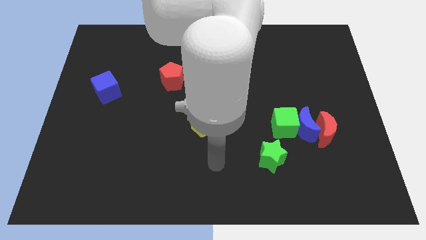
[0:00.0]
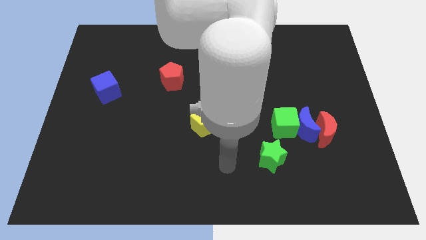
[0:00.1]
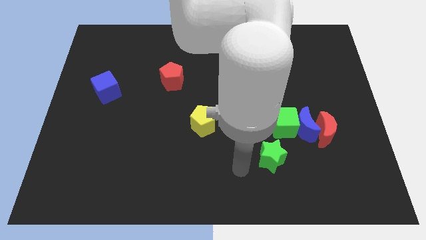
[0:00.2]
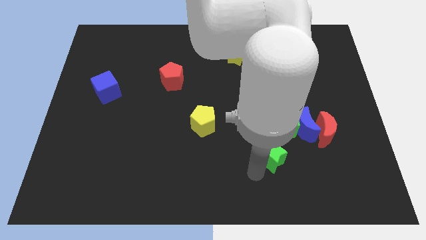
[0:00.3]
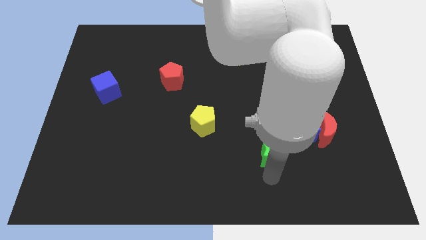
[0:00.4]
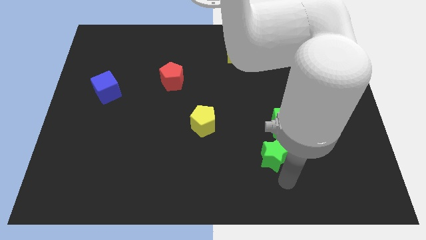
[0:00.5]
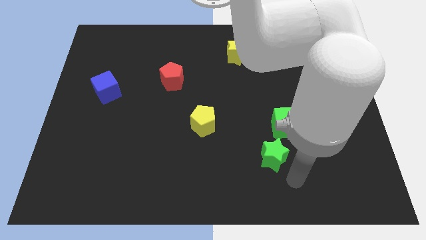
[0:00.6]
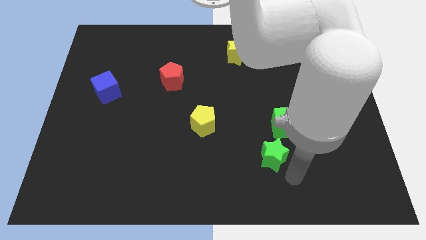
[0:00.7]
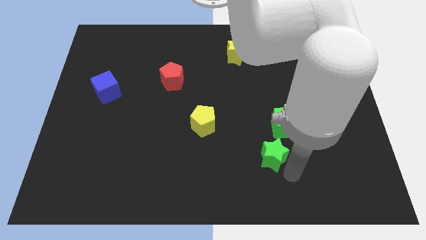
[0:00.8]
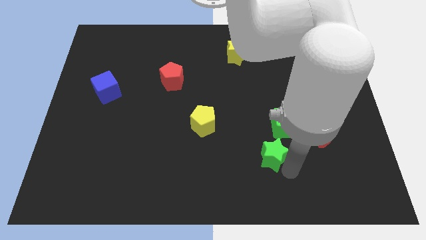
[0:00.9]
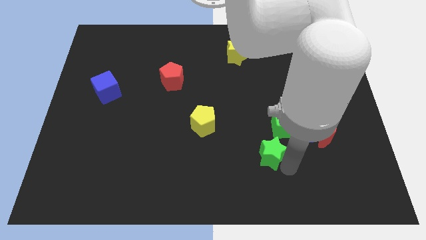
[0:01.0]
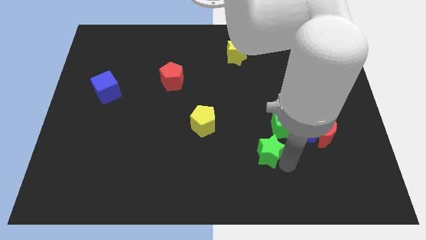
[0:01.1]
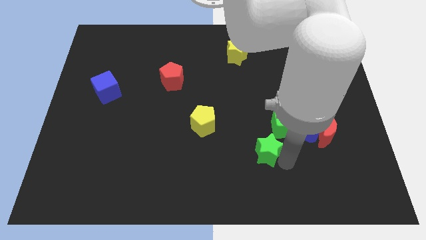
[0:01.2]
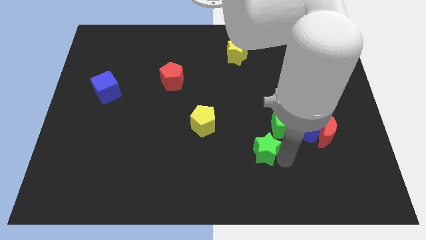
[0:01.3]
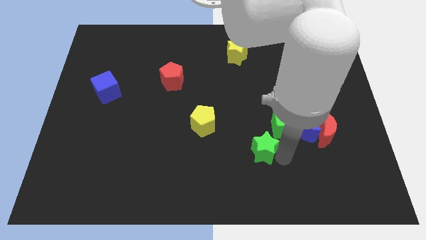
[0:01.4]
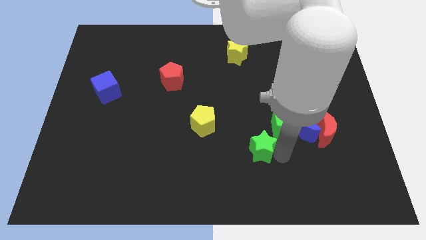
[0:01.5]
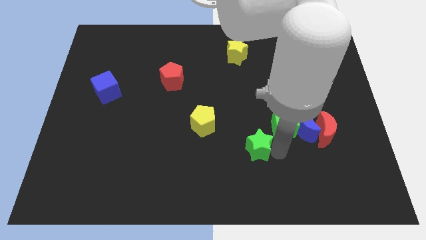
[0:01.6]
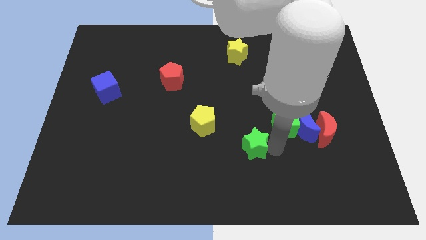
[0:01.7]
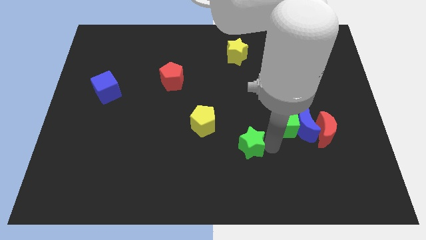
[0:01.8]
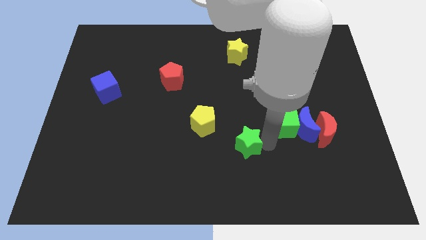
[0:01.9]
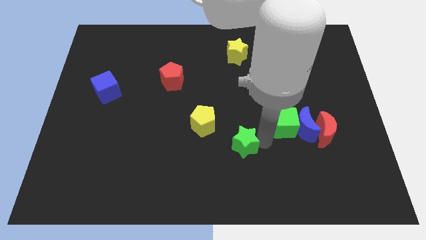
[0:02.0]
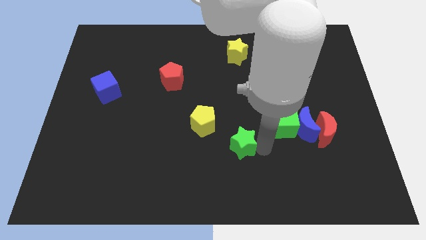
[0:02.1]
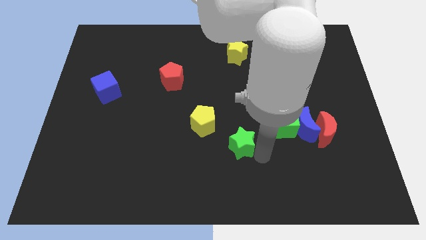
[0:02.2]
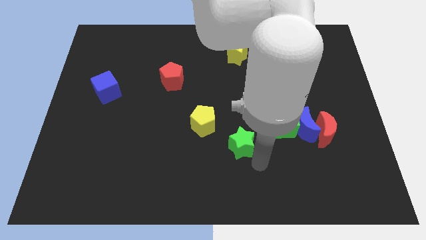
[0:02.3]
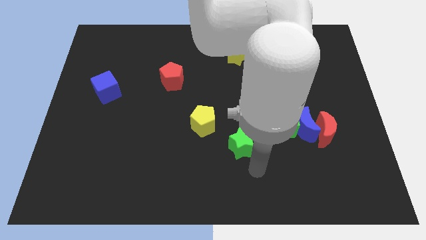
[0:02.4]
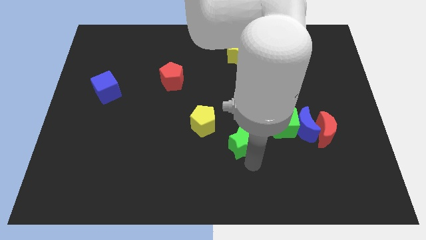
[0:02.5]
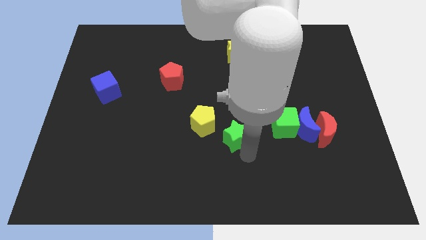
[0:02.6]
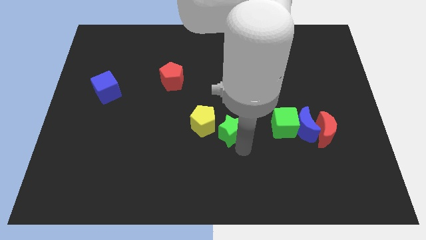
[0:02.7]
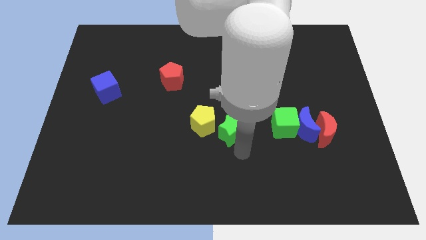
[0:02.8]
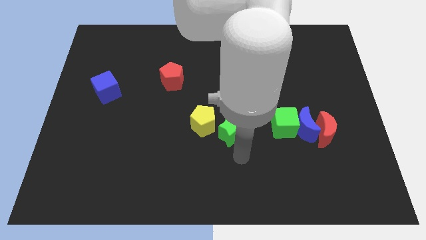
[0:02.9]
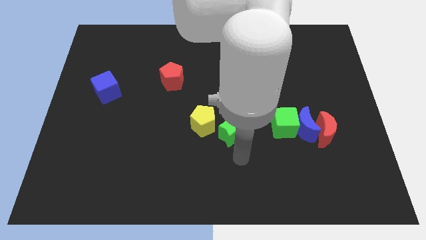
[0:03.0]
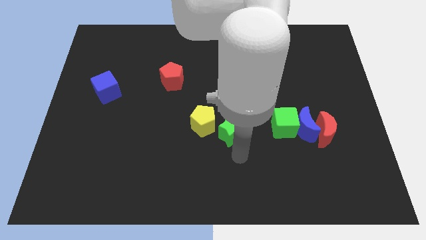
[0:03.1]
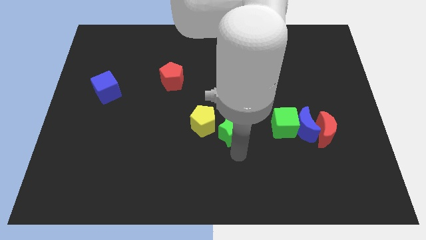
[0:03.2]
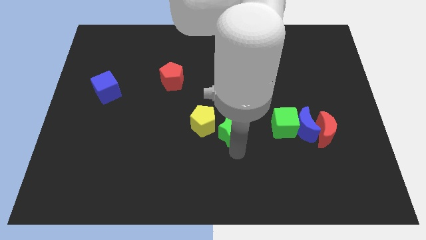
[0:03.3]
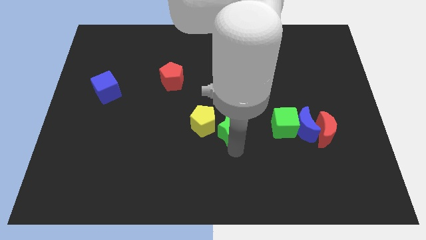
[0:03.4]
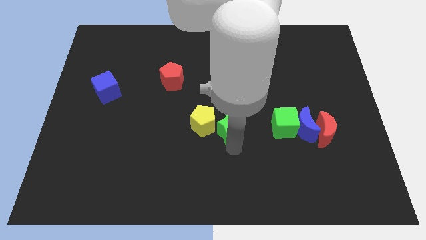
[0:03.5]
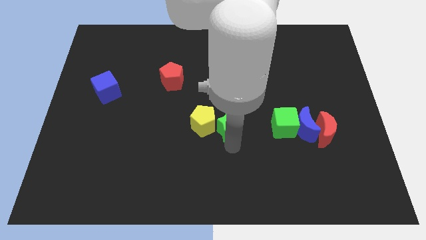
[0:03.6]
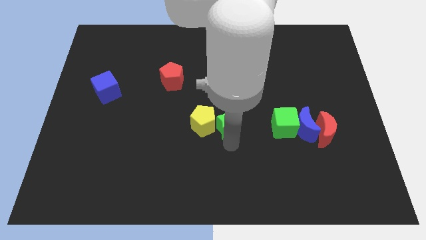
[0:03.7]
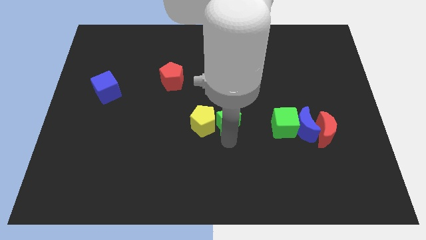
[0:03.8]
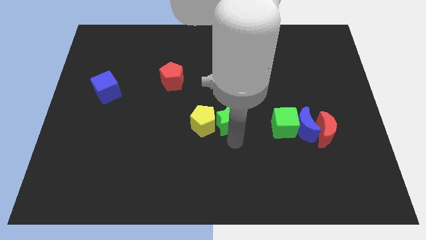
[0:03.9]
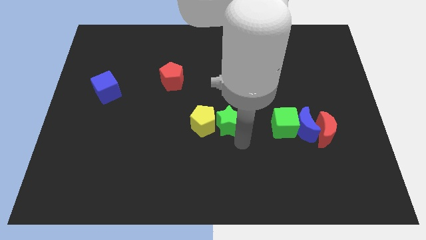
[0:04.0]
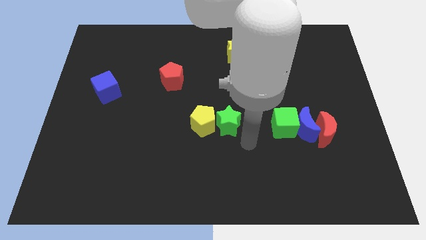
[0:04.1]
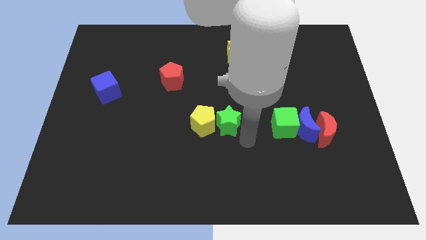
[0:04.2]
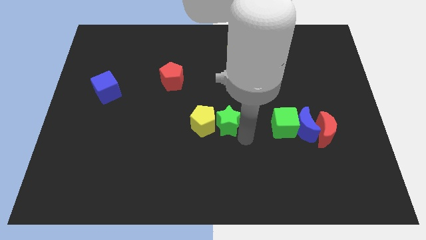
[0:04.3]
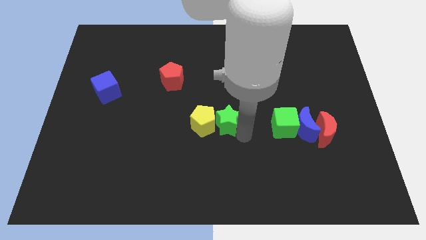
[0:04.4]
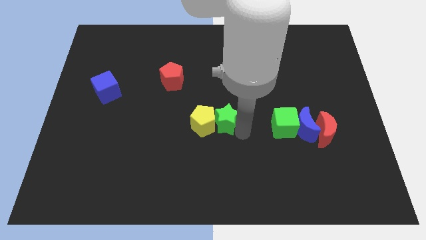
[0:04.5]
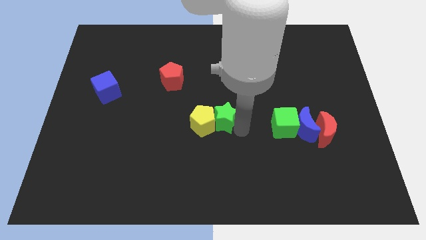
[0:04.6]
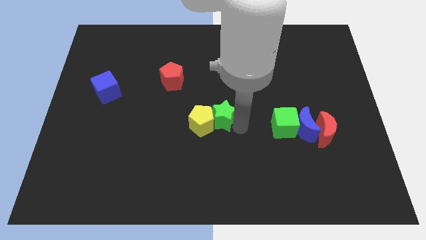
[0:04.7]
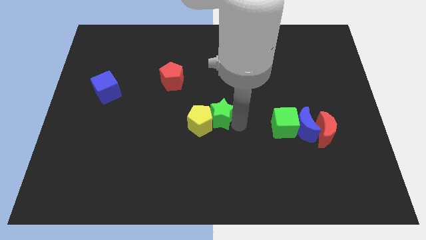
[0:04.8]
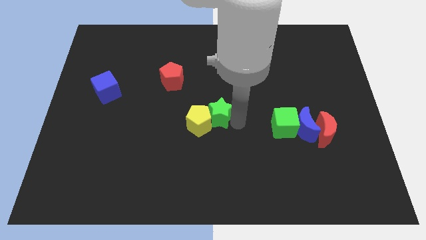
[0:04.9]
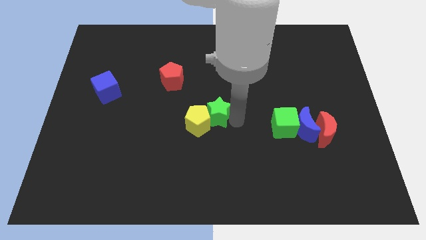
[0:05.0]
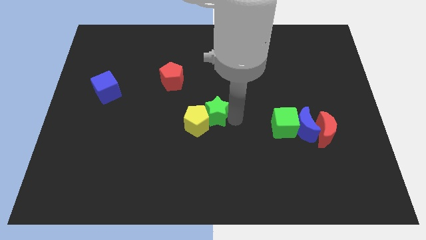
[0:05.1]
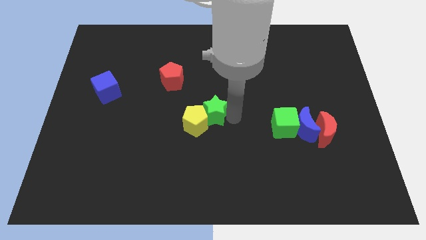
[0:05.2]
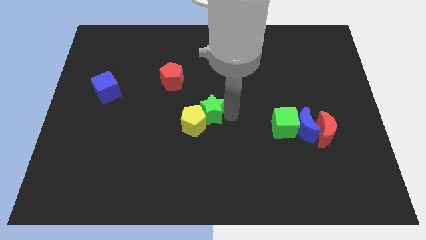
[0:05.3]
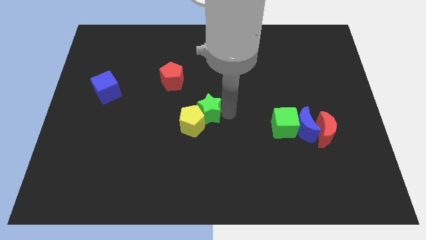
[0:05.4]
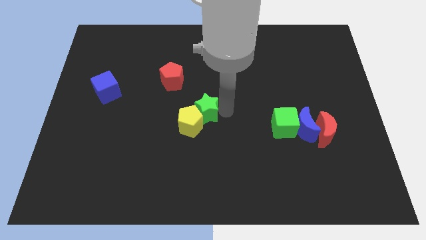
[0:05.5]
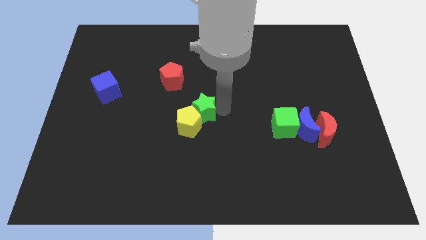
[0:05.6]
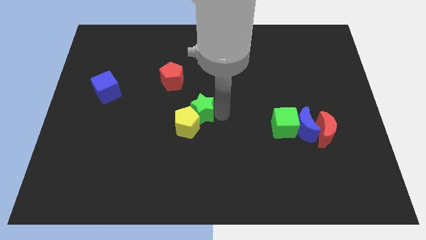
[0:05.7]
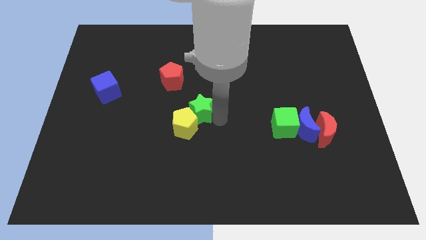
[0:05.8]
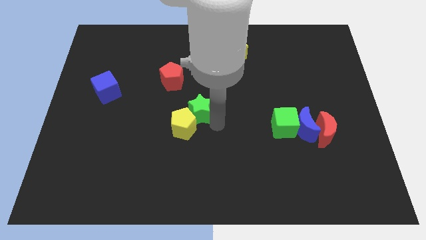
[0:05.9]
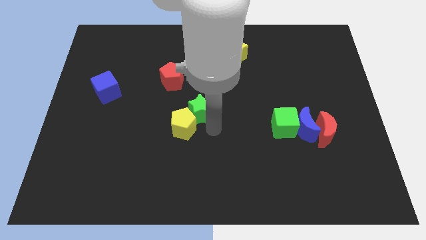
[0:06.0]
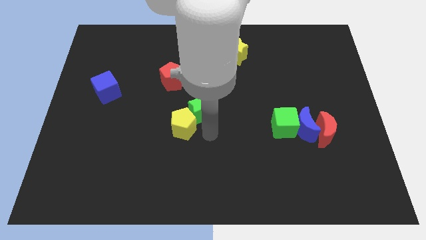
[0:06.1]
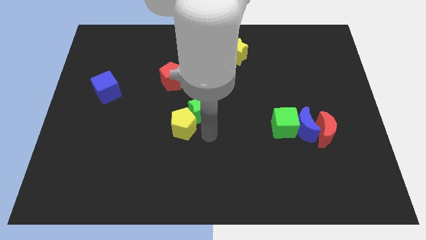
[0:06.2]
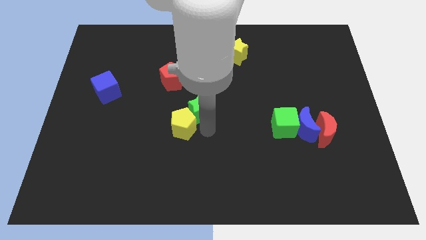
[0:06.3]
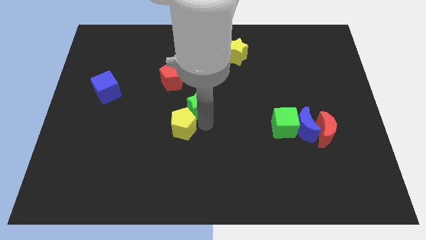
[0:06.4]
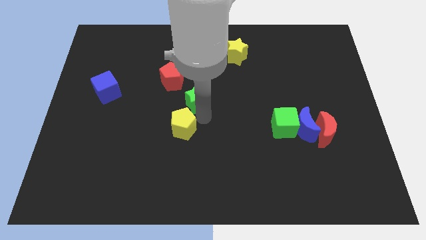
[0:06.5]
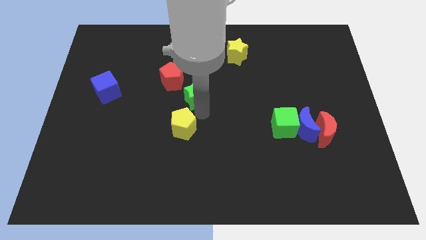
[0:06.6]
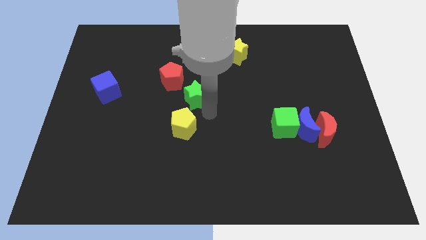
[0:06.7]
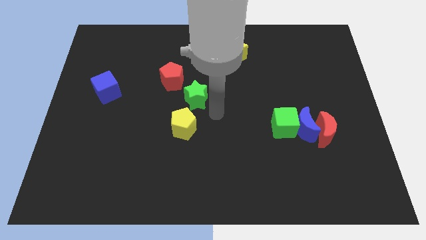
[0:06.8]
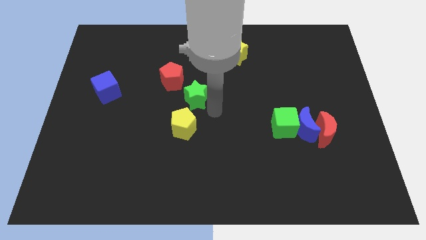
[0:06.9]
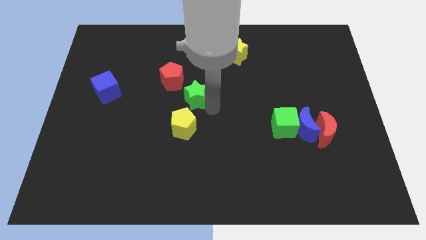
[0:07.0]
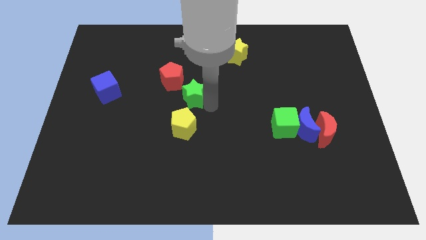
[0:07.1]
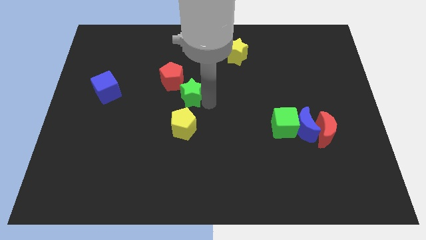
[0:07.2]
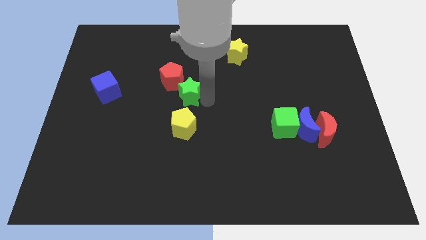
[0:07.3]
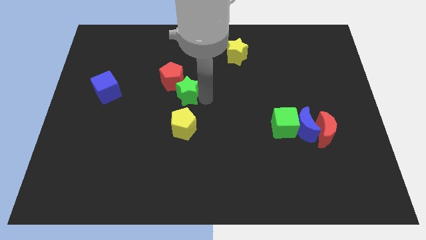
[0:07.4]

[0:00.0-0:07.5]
push the green star close to the red pentagon
